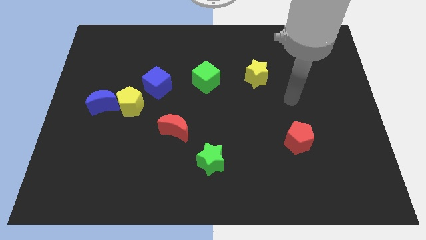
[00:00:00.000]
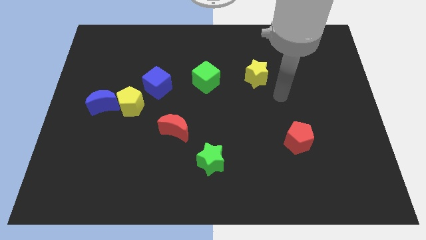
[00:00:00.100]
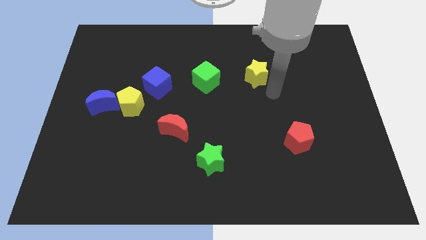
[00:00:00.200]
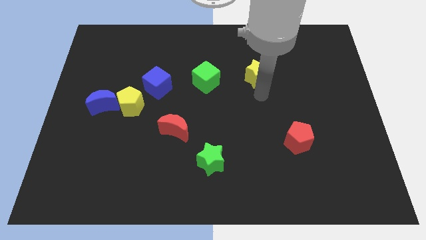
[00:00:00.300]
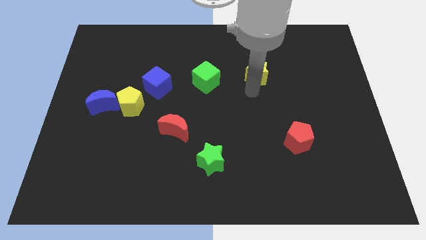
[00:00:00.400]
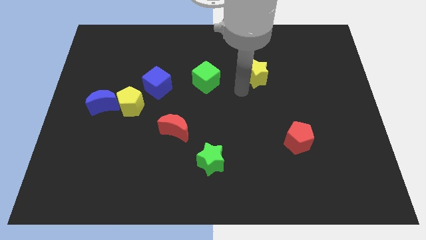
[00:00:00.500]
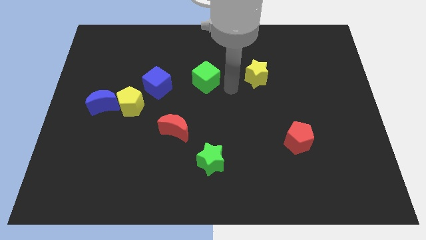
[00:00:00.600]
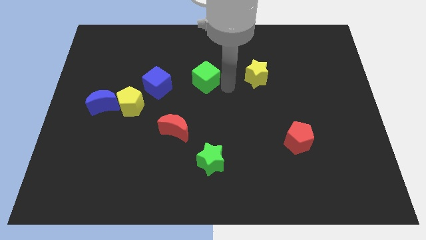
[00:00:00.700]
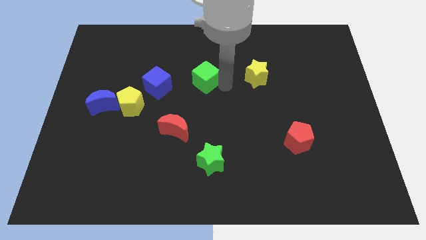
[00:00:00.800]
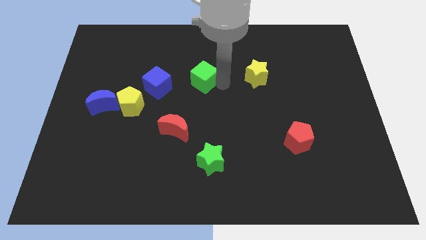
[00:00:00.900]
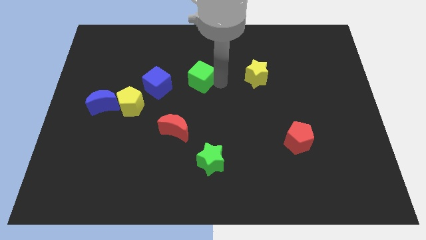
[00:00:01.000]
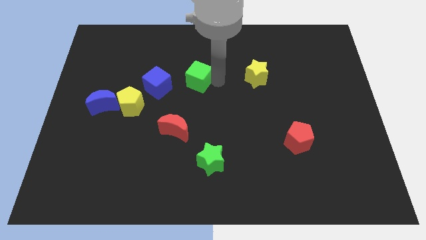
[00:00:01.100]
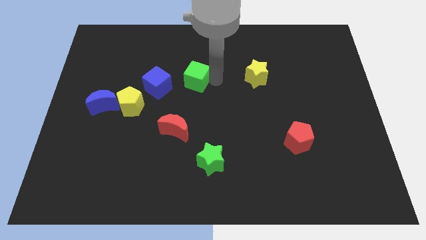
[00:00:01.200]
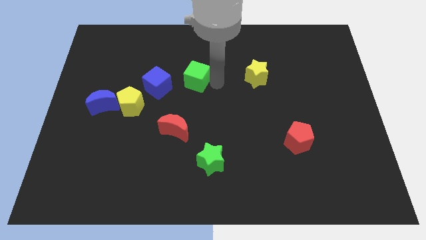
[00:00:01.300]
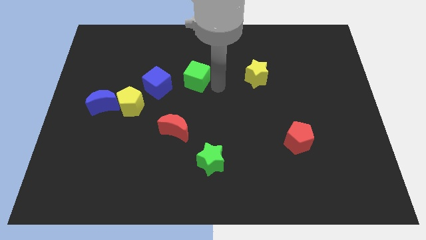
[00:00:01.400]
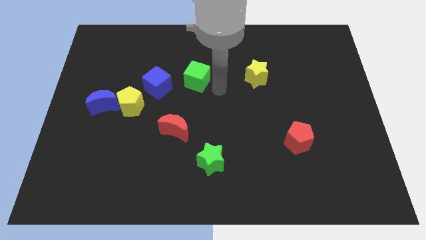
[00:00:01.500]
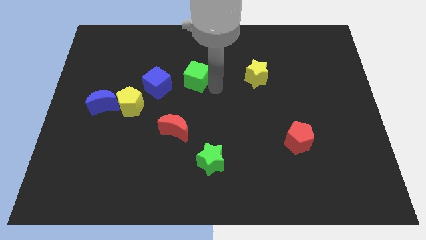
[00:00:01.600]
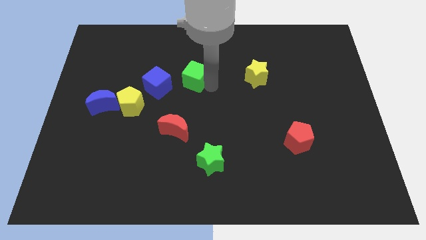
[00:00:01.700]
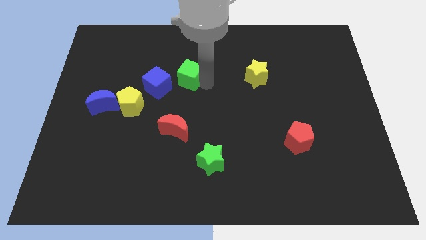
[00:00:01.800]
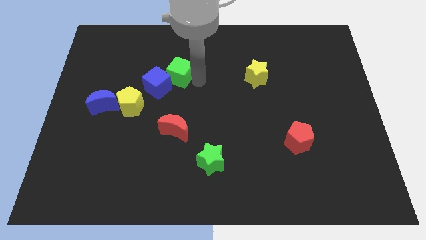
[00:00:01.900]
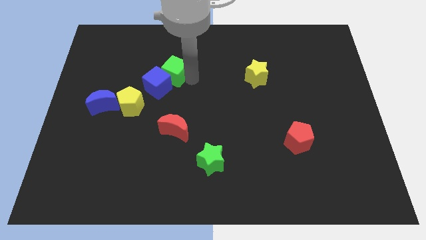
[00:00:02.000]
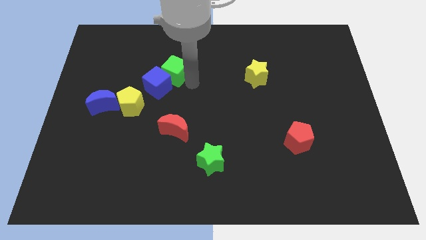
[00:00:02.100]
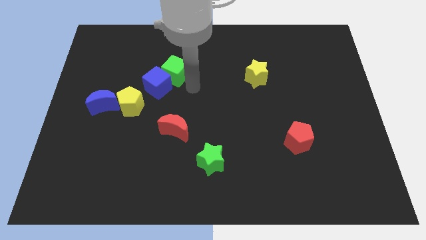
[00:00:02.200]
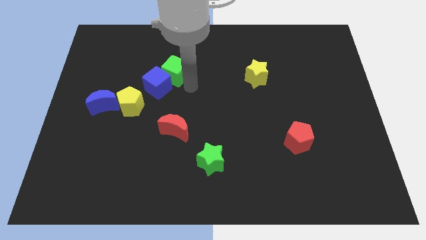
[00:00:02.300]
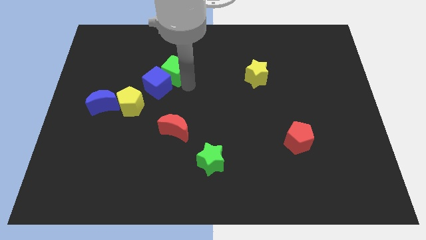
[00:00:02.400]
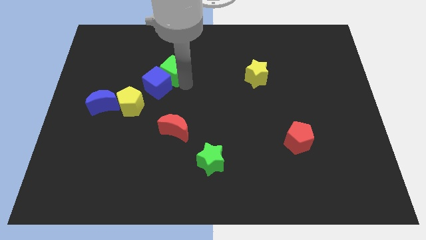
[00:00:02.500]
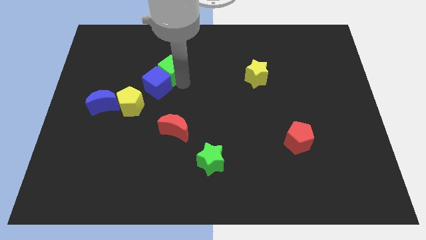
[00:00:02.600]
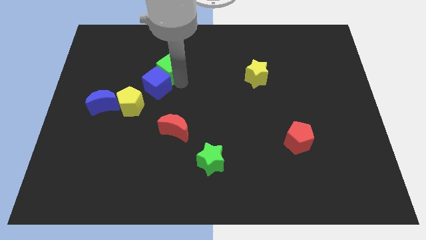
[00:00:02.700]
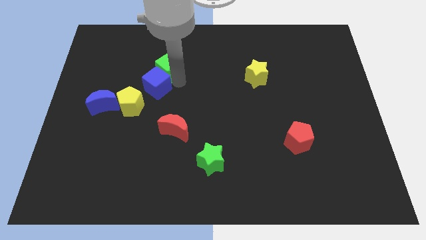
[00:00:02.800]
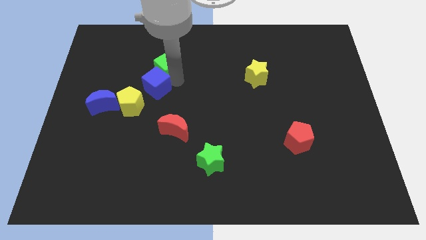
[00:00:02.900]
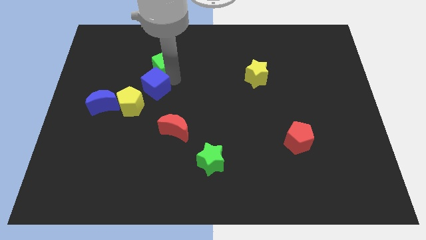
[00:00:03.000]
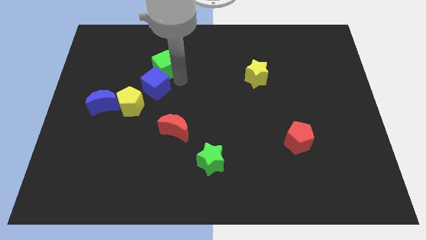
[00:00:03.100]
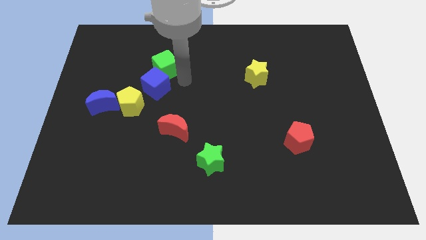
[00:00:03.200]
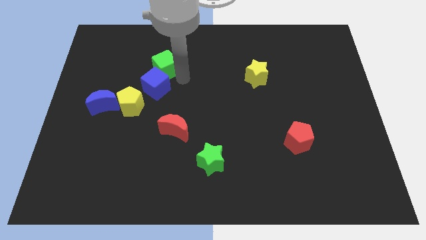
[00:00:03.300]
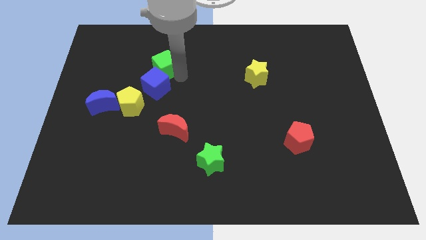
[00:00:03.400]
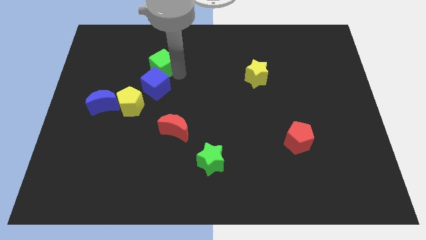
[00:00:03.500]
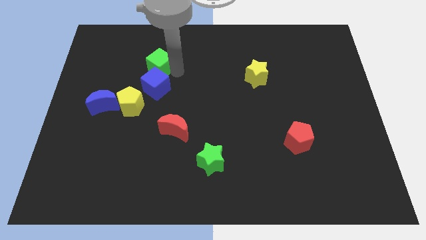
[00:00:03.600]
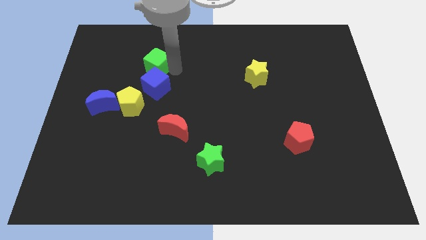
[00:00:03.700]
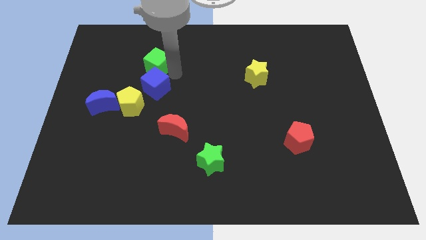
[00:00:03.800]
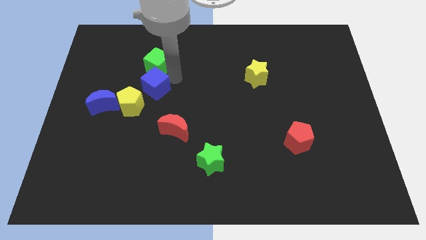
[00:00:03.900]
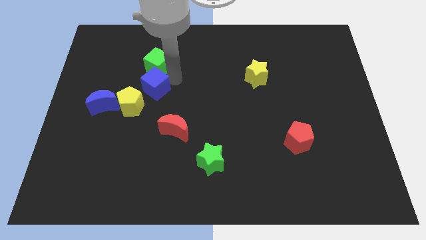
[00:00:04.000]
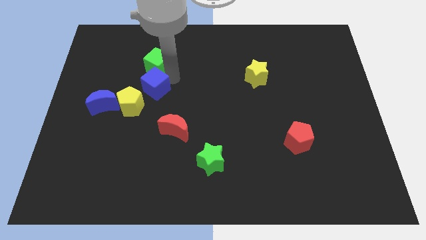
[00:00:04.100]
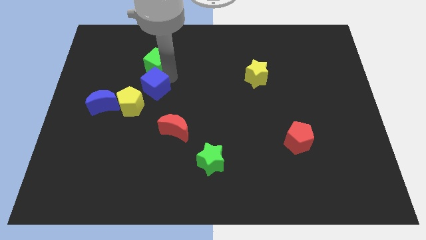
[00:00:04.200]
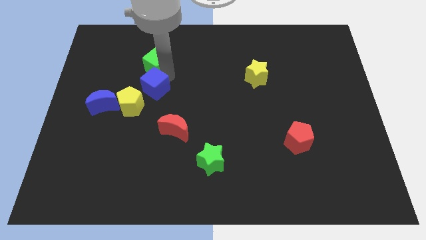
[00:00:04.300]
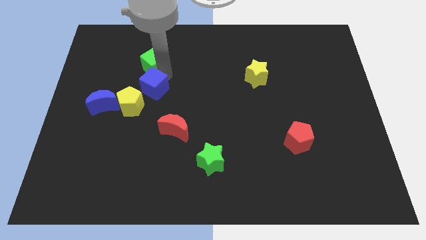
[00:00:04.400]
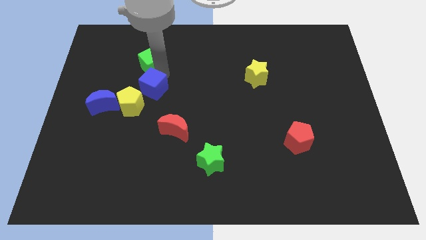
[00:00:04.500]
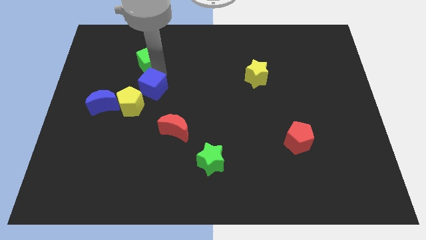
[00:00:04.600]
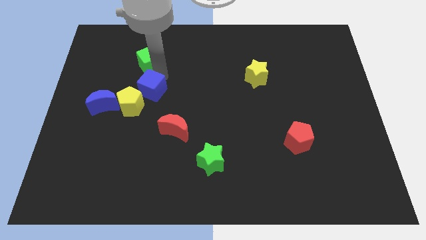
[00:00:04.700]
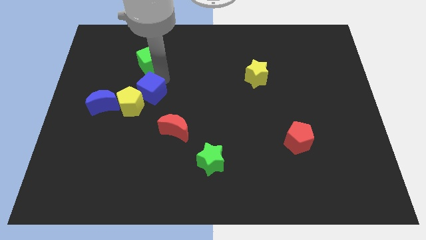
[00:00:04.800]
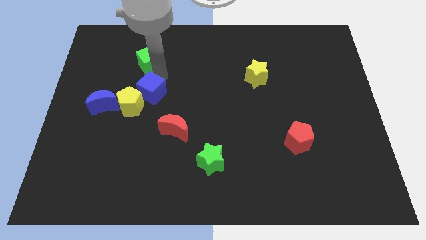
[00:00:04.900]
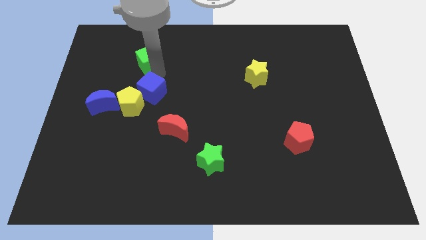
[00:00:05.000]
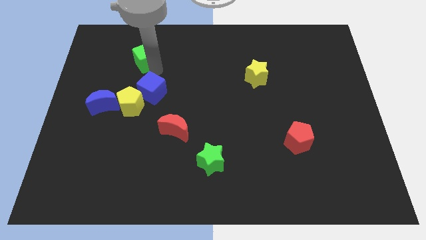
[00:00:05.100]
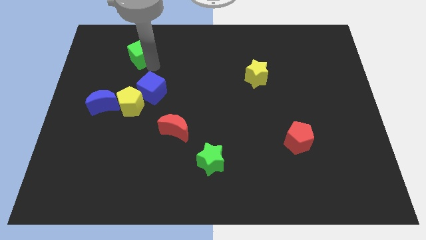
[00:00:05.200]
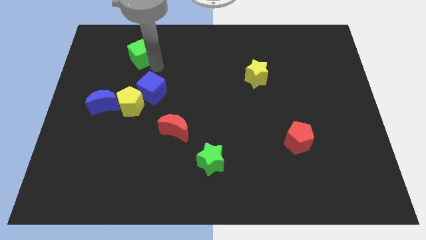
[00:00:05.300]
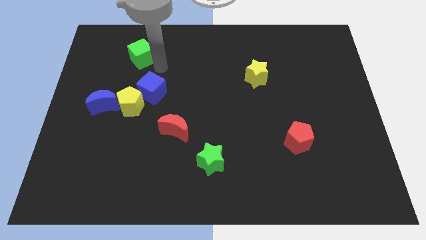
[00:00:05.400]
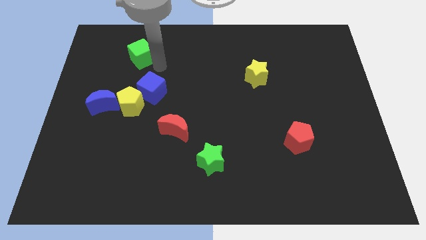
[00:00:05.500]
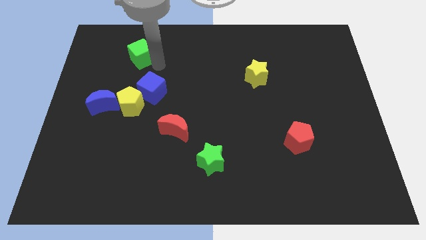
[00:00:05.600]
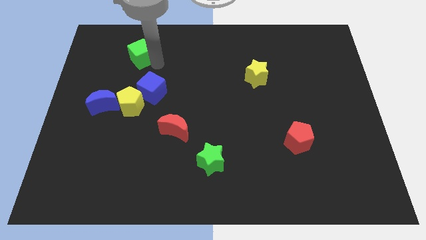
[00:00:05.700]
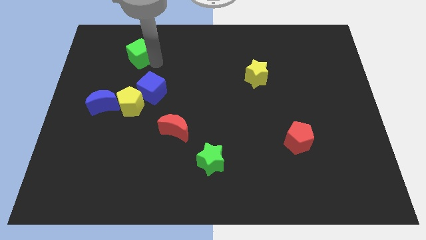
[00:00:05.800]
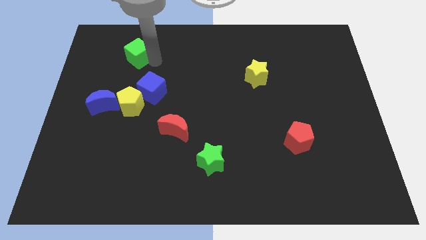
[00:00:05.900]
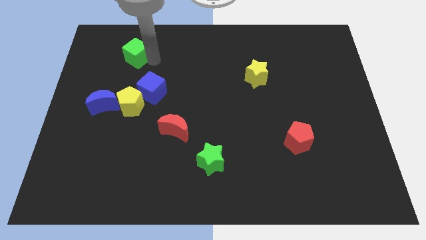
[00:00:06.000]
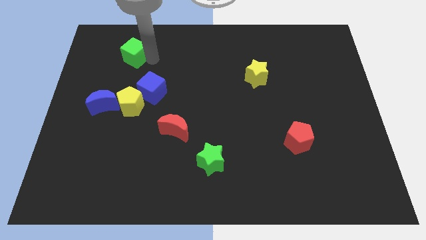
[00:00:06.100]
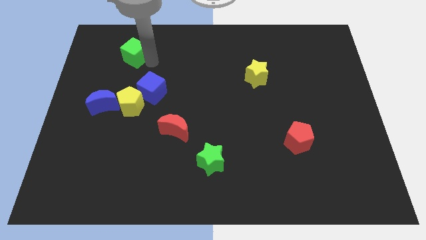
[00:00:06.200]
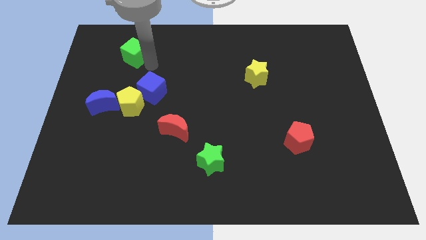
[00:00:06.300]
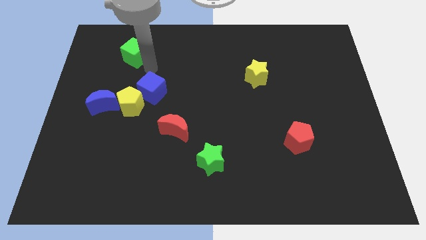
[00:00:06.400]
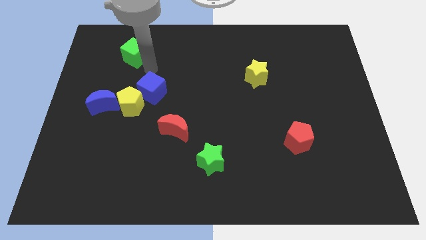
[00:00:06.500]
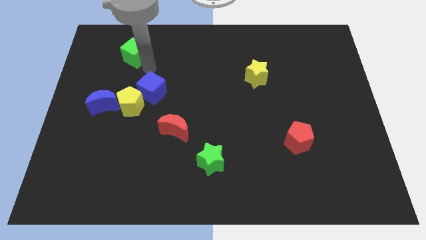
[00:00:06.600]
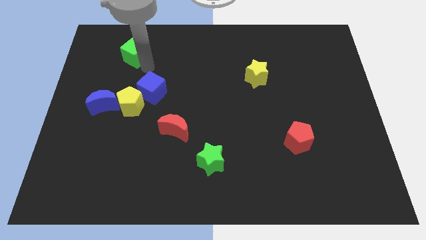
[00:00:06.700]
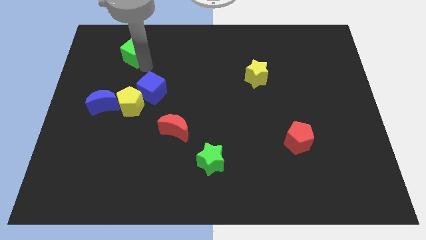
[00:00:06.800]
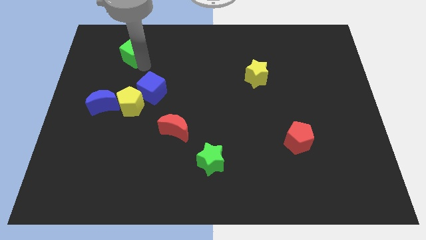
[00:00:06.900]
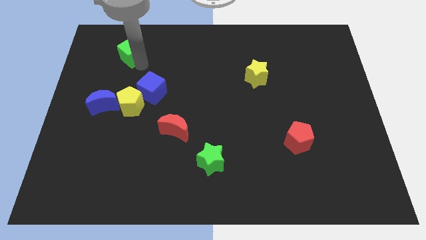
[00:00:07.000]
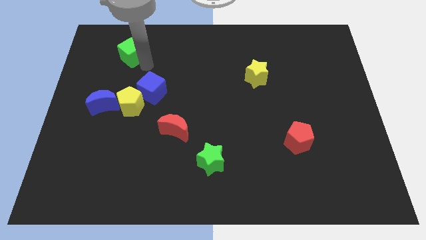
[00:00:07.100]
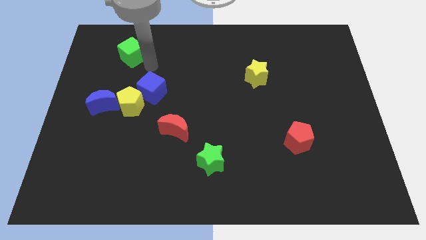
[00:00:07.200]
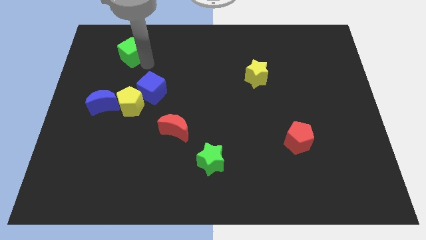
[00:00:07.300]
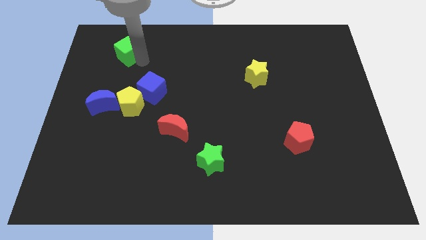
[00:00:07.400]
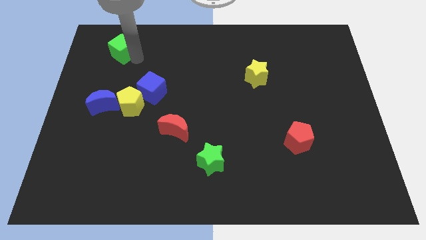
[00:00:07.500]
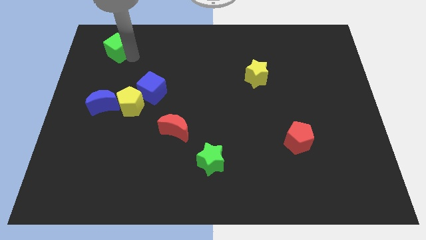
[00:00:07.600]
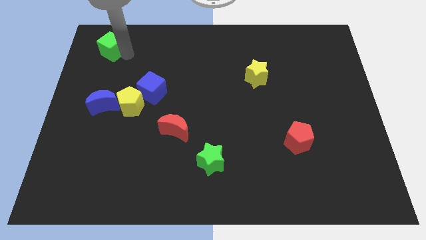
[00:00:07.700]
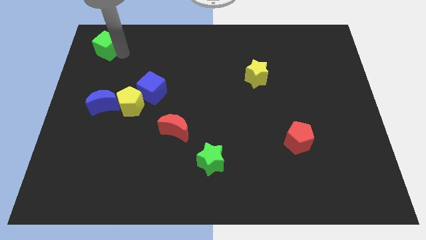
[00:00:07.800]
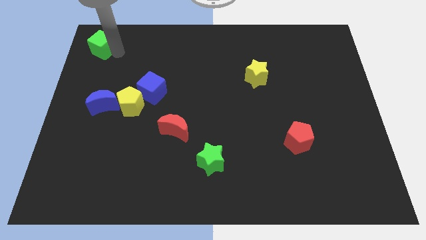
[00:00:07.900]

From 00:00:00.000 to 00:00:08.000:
move the green cube to the upper left corner
